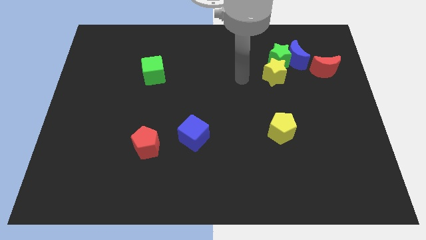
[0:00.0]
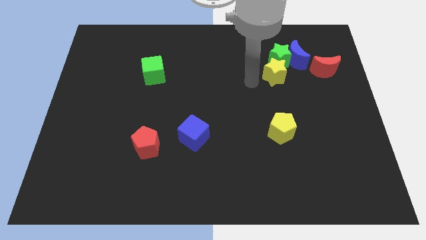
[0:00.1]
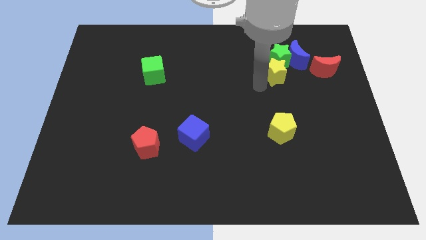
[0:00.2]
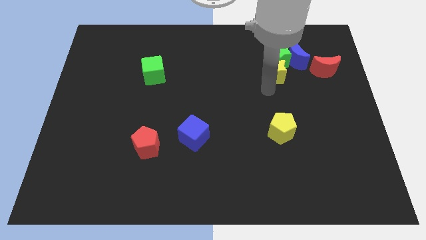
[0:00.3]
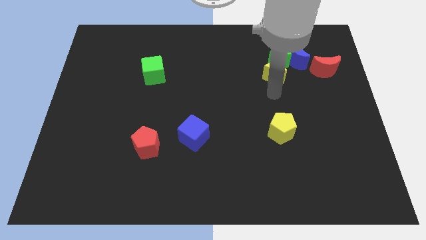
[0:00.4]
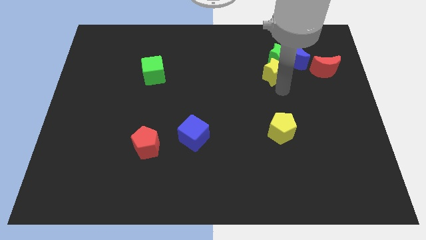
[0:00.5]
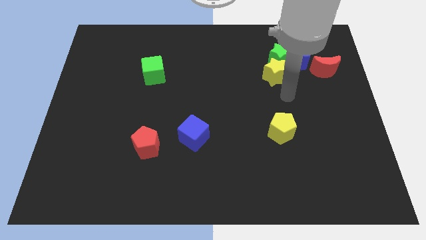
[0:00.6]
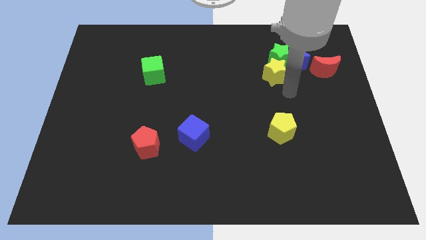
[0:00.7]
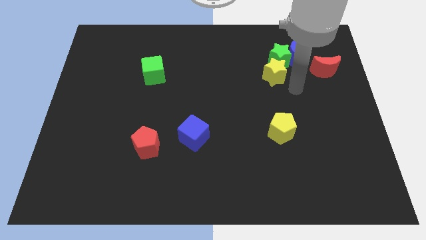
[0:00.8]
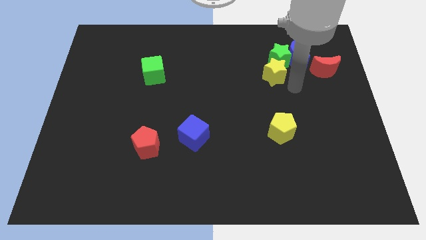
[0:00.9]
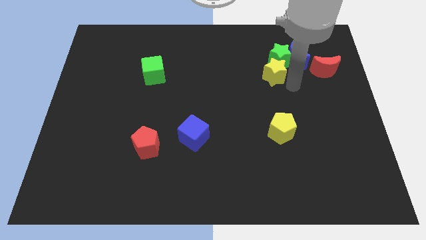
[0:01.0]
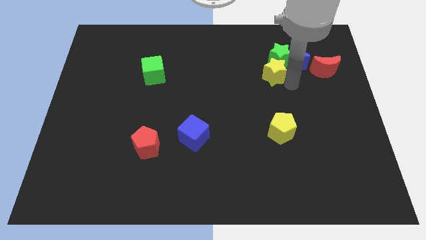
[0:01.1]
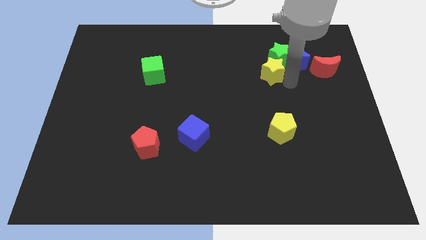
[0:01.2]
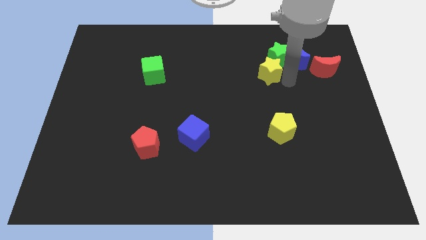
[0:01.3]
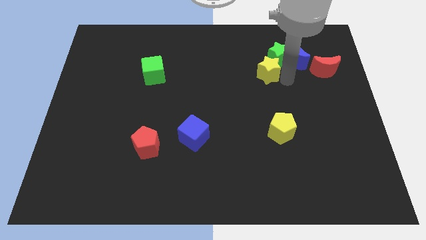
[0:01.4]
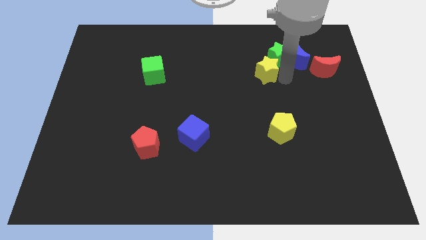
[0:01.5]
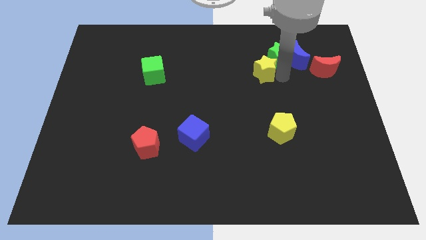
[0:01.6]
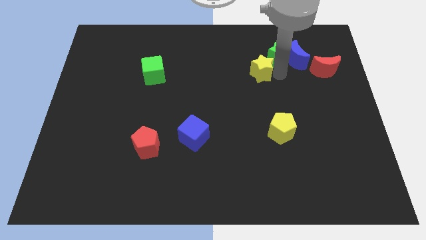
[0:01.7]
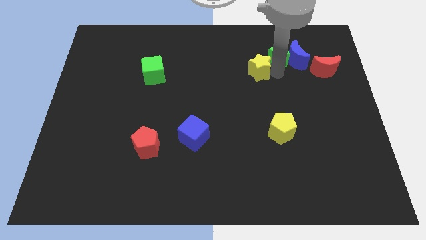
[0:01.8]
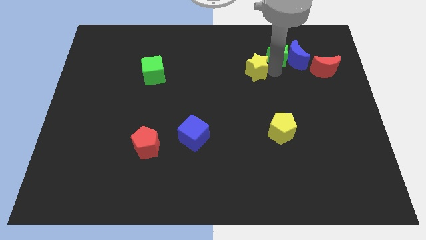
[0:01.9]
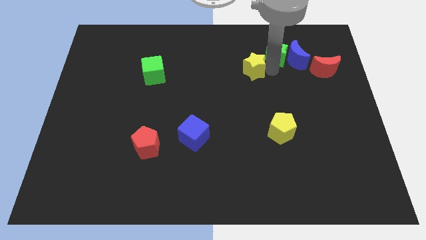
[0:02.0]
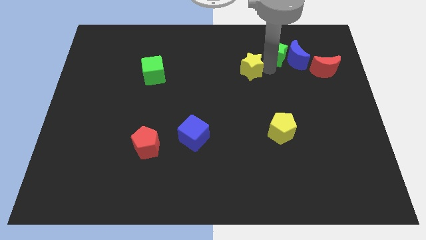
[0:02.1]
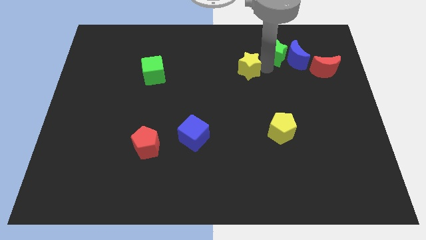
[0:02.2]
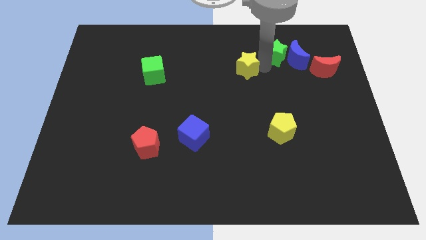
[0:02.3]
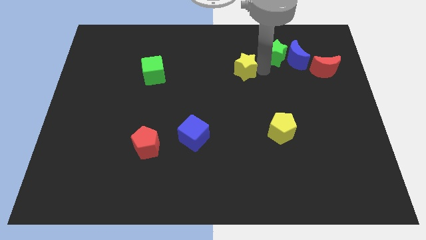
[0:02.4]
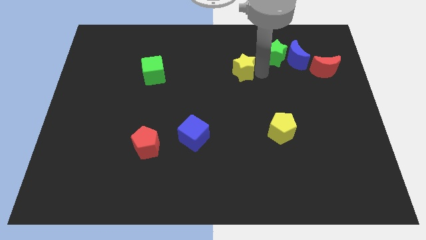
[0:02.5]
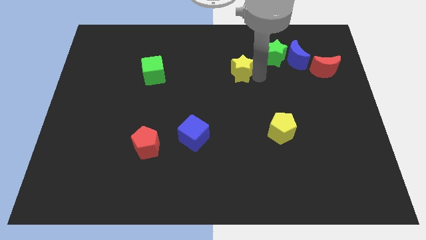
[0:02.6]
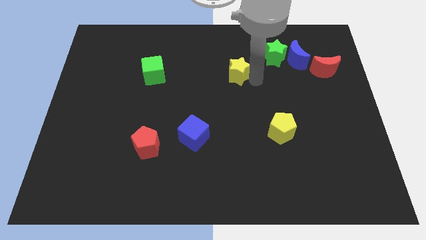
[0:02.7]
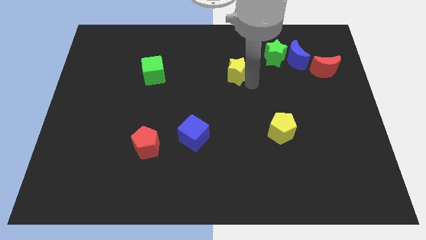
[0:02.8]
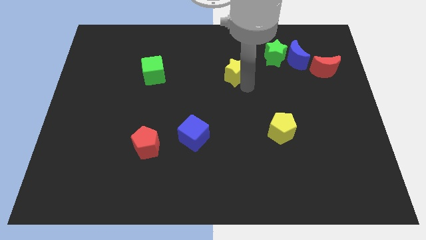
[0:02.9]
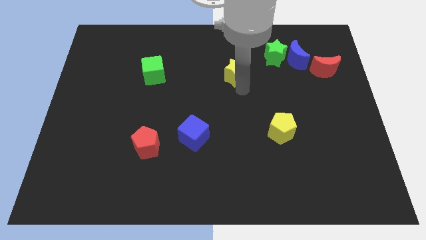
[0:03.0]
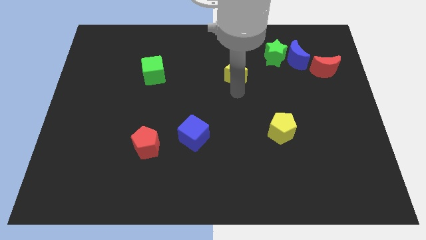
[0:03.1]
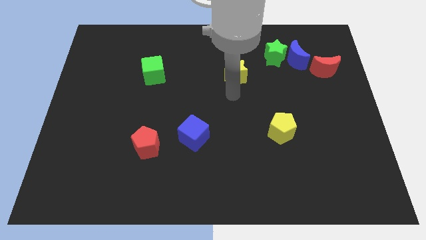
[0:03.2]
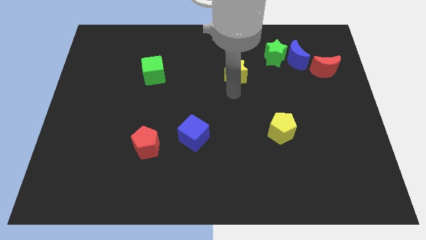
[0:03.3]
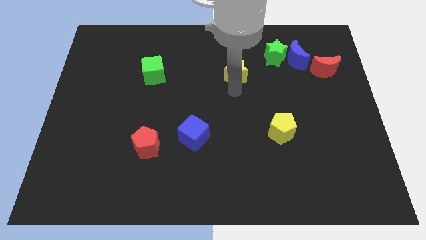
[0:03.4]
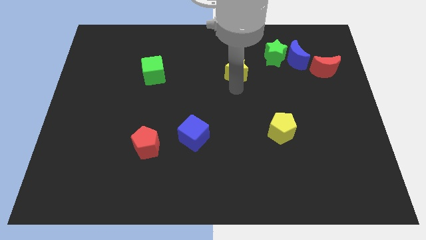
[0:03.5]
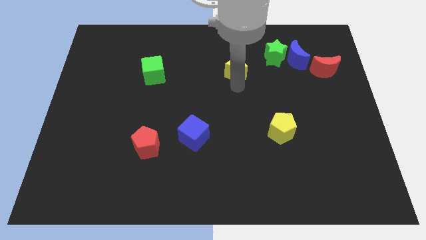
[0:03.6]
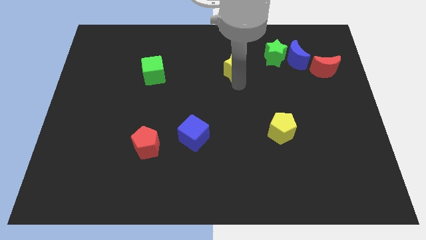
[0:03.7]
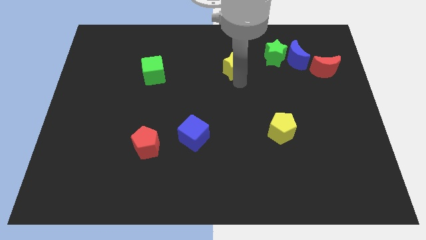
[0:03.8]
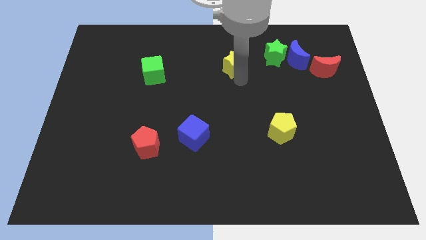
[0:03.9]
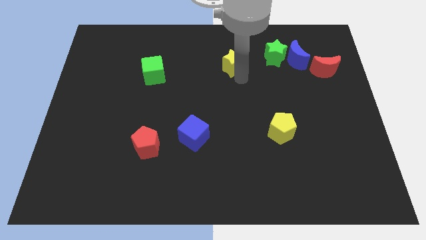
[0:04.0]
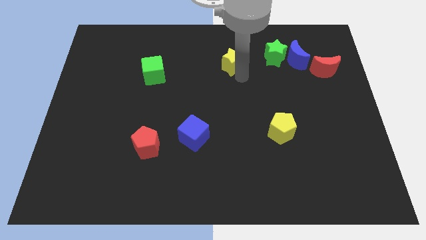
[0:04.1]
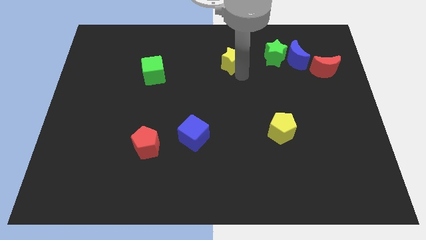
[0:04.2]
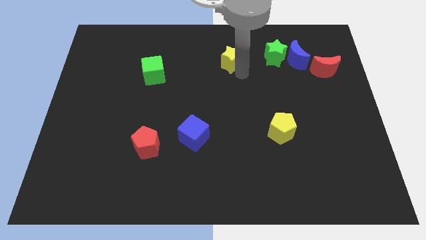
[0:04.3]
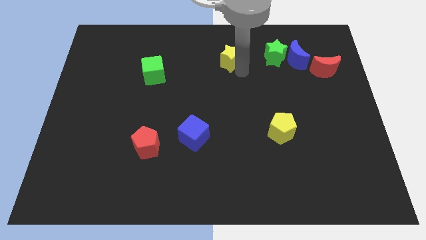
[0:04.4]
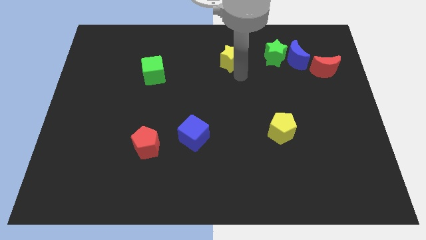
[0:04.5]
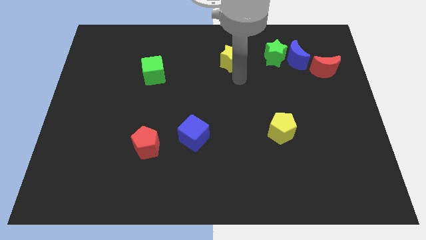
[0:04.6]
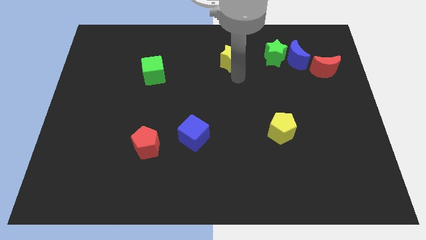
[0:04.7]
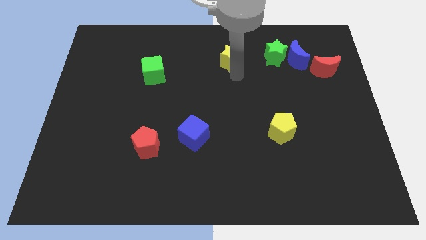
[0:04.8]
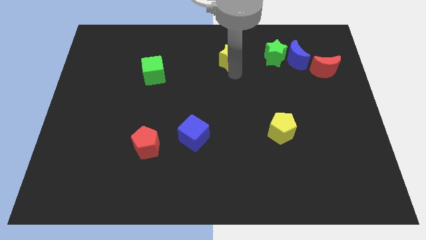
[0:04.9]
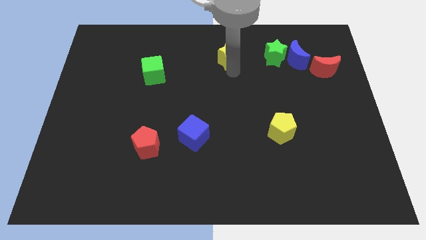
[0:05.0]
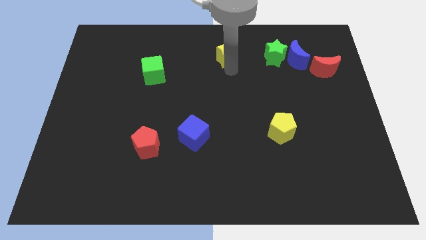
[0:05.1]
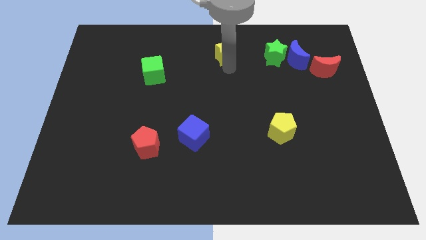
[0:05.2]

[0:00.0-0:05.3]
put the yellow star to the top side

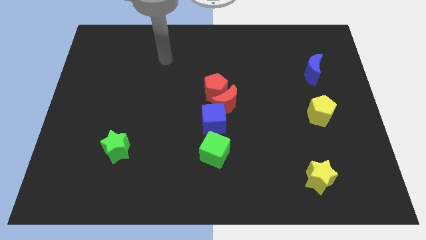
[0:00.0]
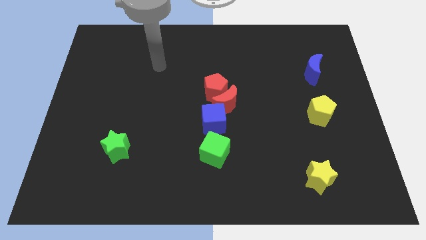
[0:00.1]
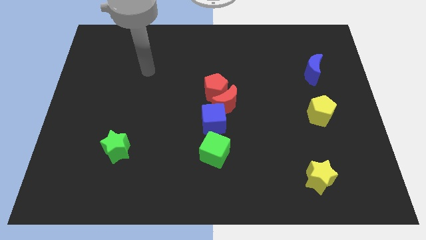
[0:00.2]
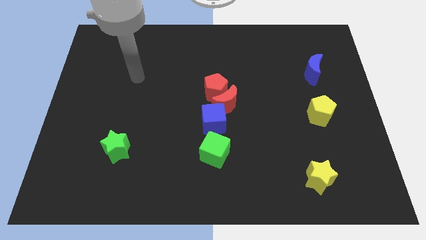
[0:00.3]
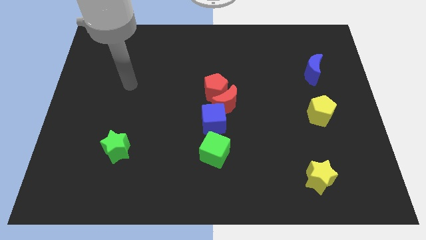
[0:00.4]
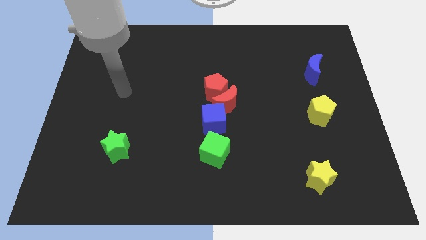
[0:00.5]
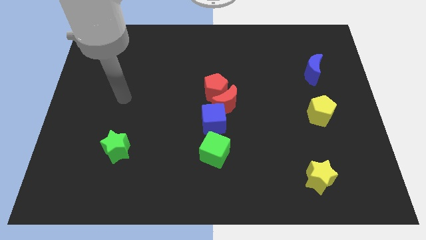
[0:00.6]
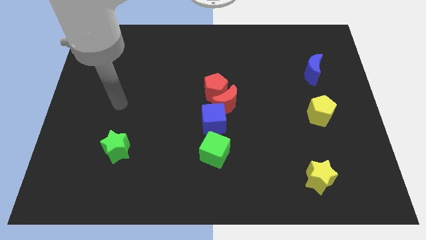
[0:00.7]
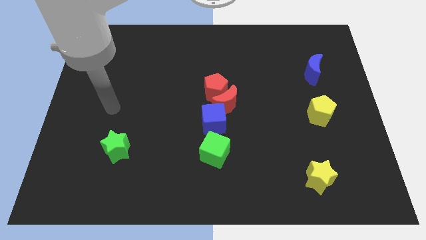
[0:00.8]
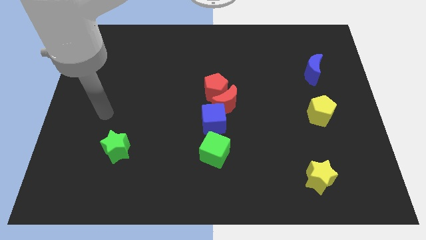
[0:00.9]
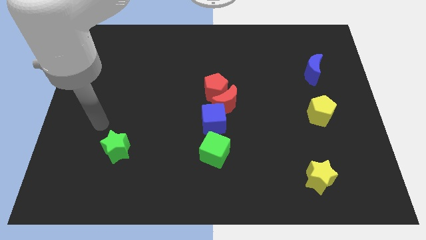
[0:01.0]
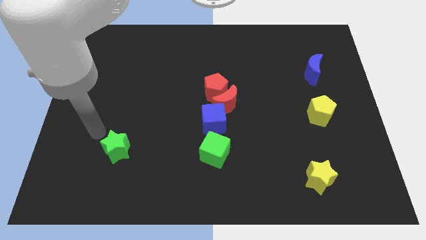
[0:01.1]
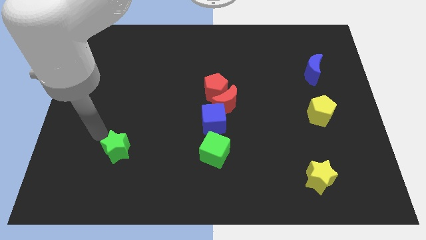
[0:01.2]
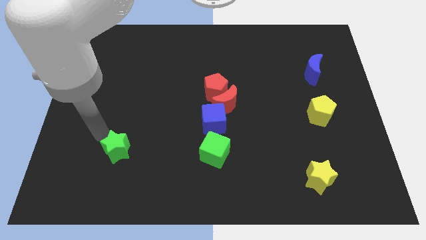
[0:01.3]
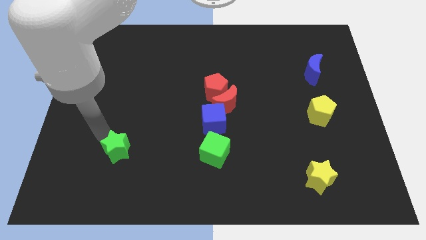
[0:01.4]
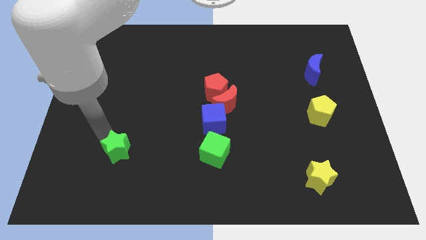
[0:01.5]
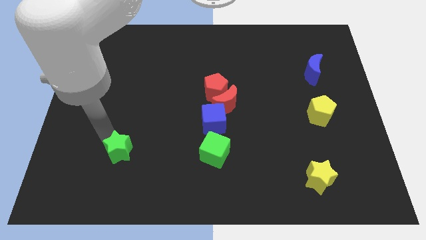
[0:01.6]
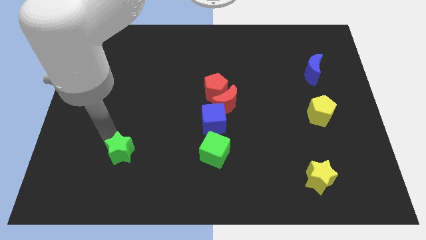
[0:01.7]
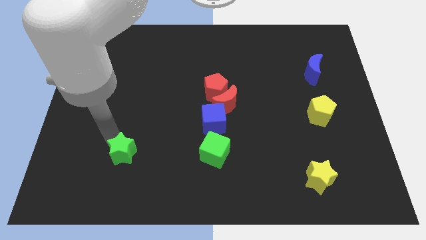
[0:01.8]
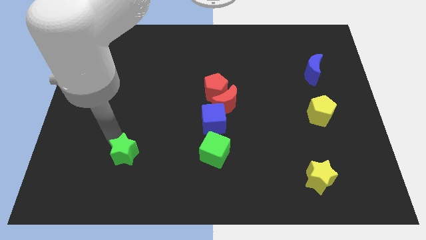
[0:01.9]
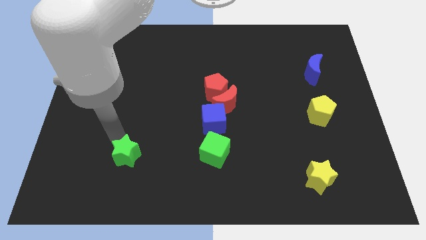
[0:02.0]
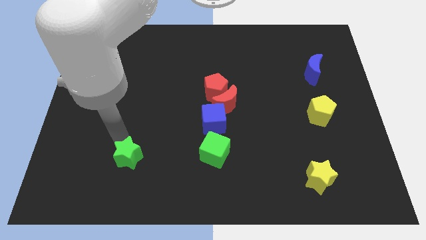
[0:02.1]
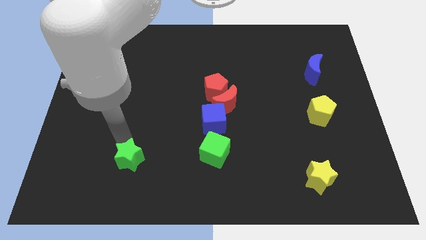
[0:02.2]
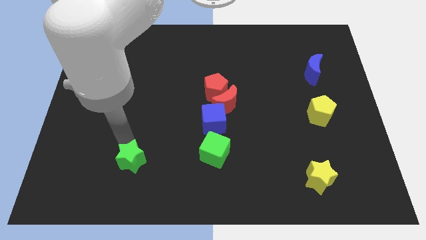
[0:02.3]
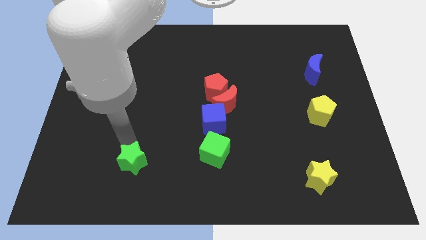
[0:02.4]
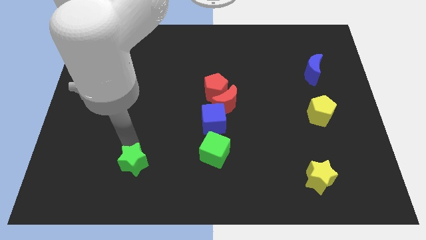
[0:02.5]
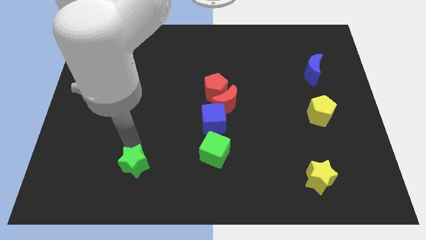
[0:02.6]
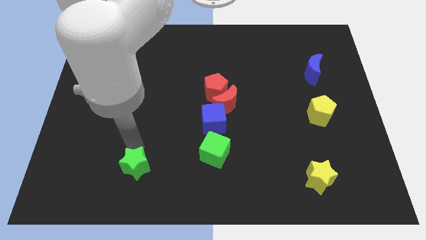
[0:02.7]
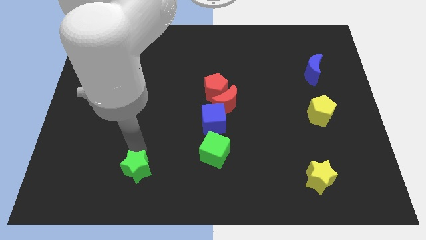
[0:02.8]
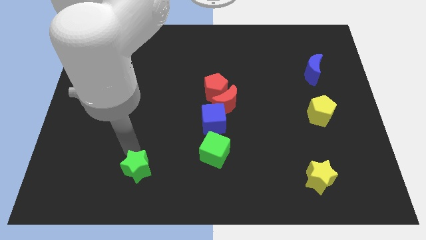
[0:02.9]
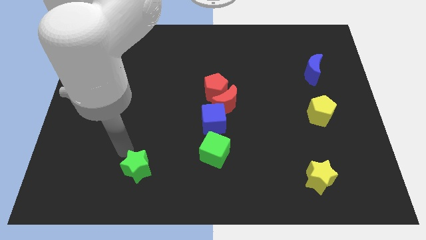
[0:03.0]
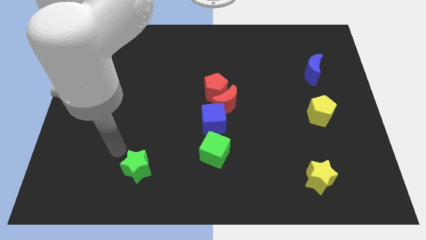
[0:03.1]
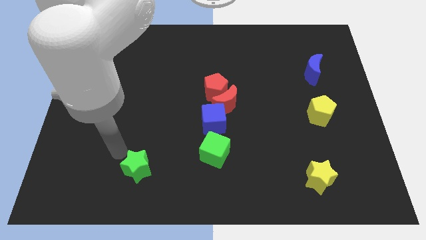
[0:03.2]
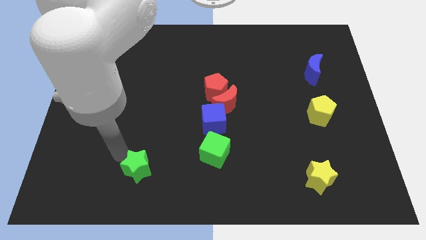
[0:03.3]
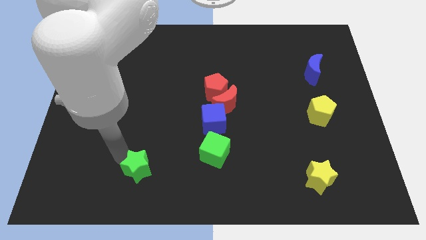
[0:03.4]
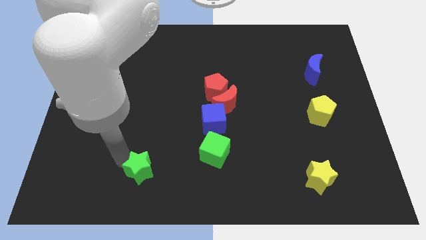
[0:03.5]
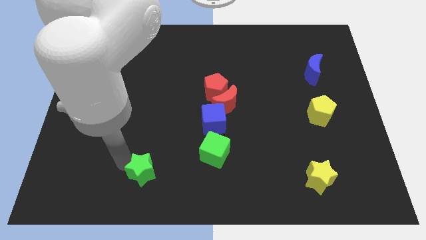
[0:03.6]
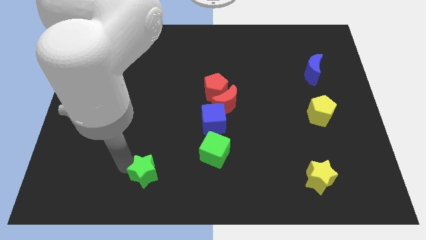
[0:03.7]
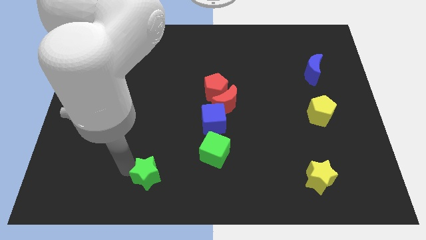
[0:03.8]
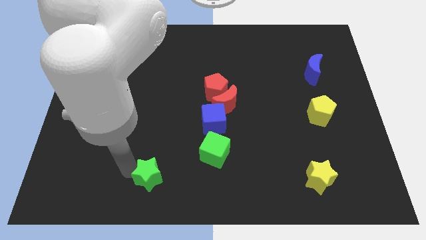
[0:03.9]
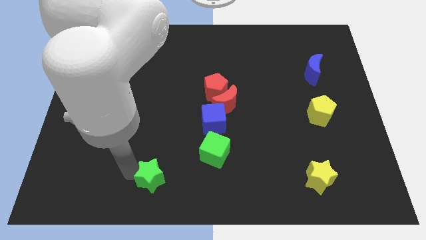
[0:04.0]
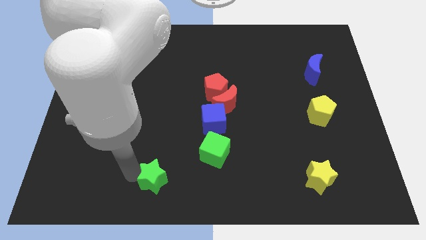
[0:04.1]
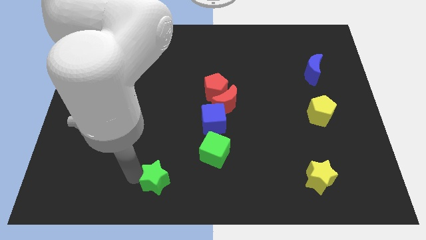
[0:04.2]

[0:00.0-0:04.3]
move the green star to the bottom
